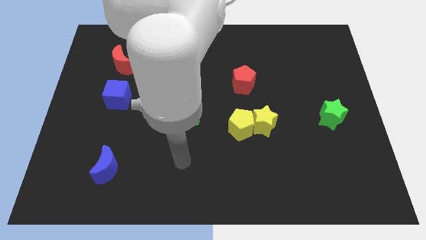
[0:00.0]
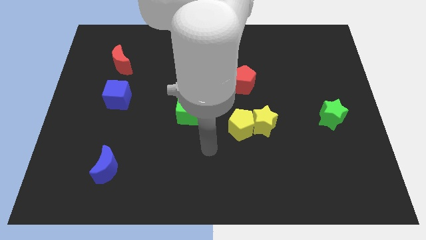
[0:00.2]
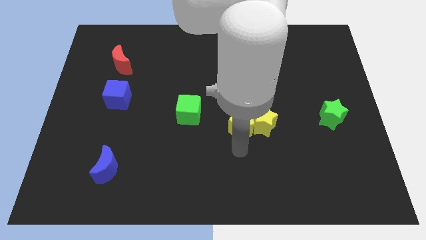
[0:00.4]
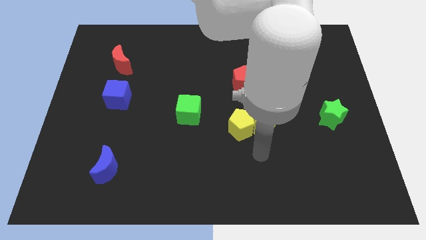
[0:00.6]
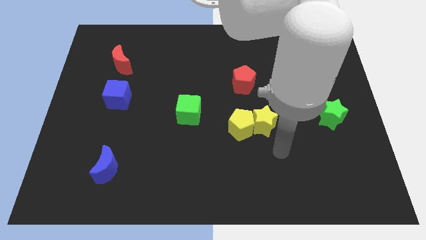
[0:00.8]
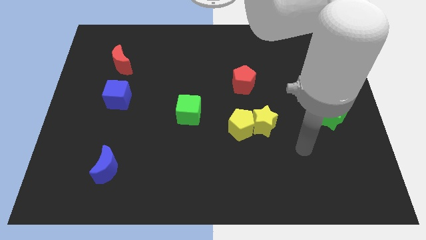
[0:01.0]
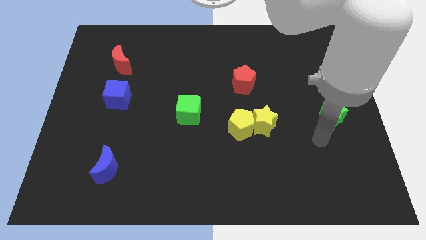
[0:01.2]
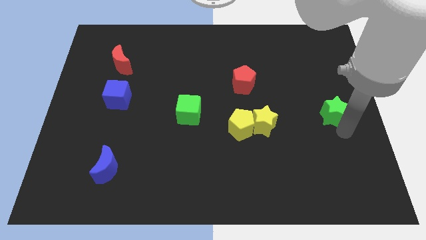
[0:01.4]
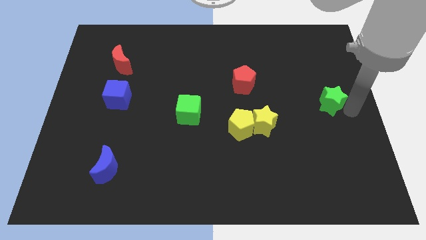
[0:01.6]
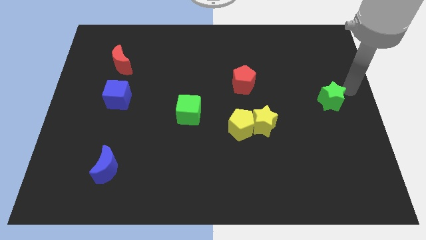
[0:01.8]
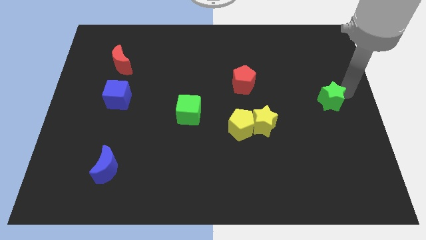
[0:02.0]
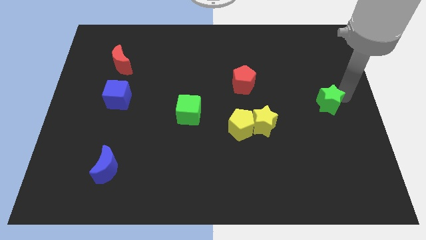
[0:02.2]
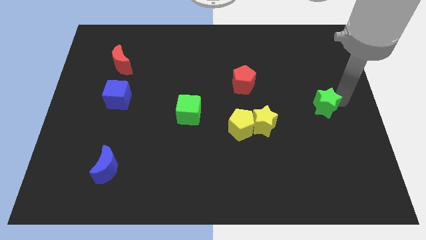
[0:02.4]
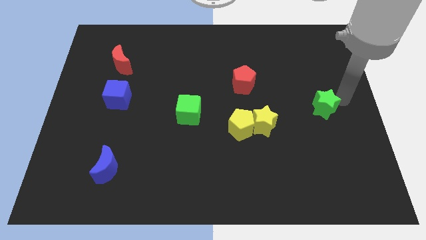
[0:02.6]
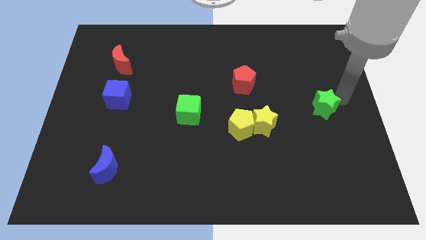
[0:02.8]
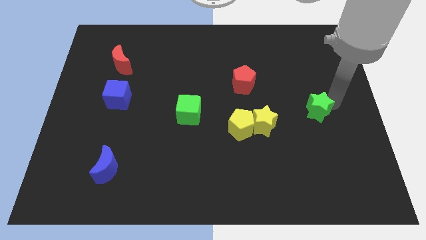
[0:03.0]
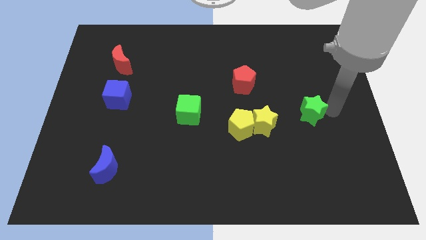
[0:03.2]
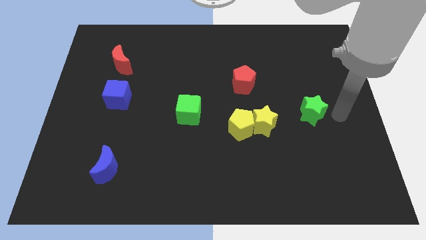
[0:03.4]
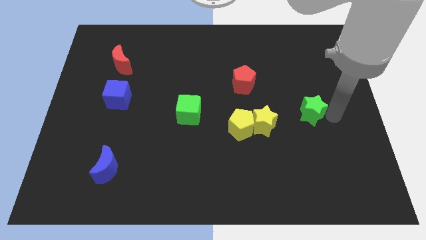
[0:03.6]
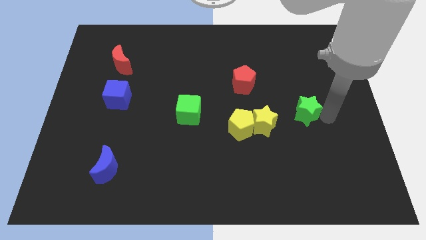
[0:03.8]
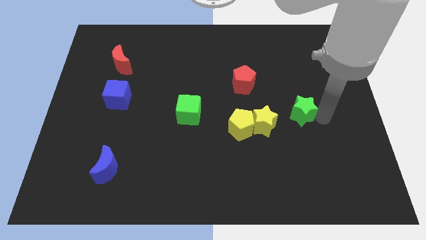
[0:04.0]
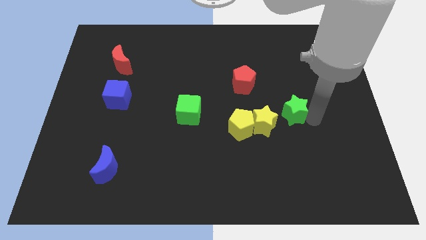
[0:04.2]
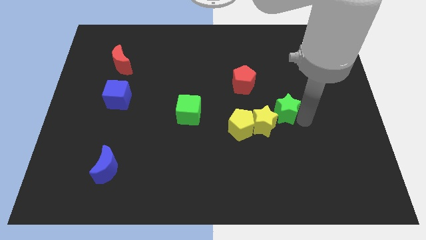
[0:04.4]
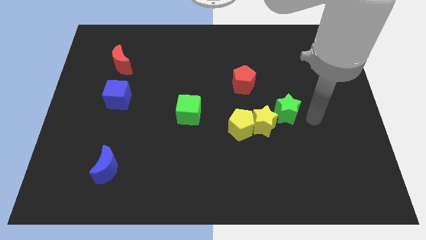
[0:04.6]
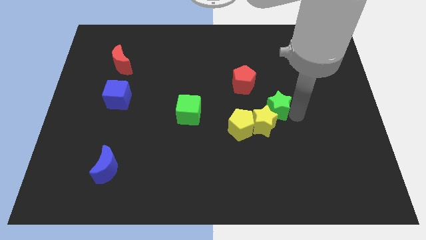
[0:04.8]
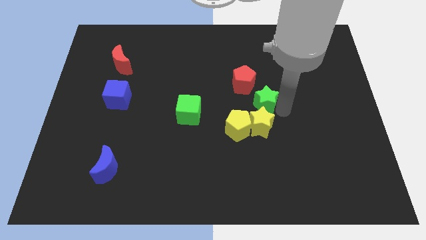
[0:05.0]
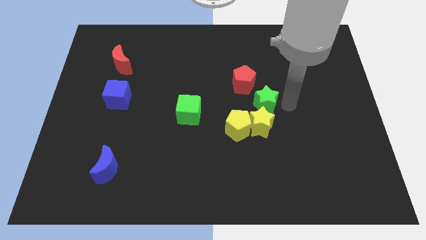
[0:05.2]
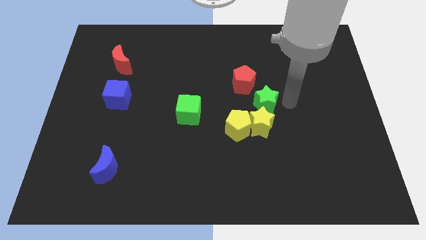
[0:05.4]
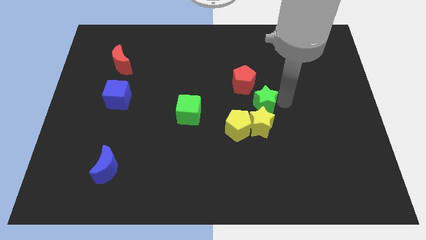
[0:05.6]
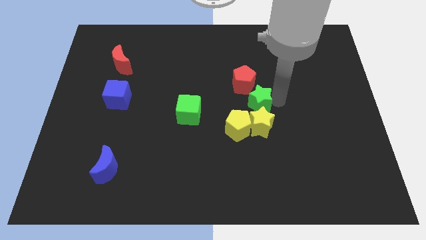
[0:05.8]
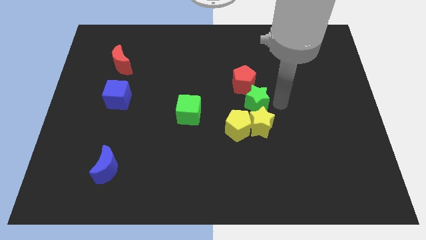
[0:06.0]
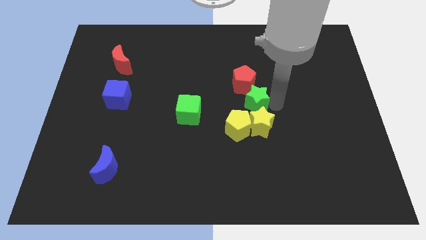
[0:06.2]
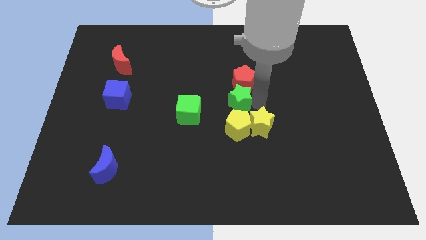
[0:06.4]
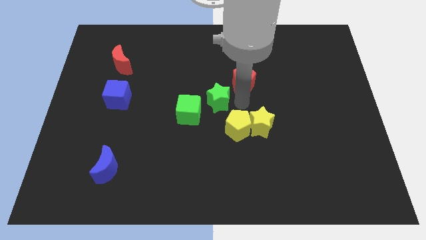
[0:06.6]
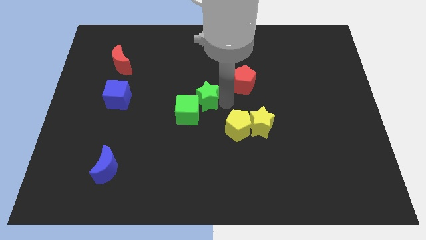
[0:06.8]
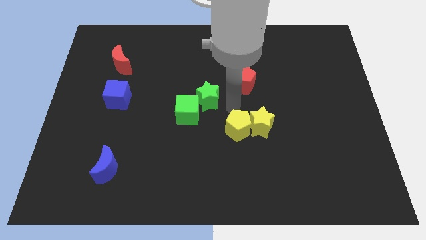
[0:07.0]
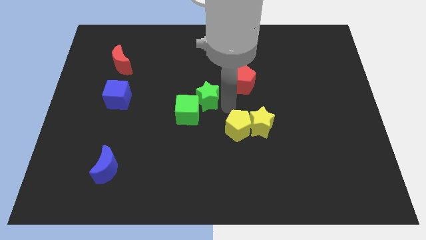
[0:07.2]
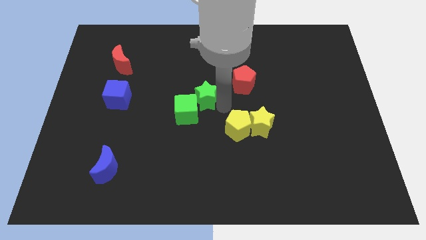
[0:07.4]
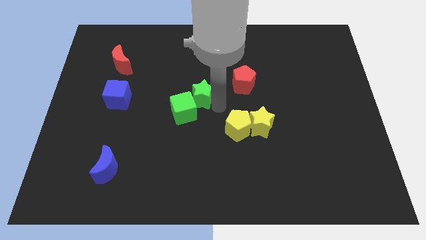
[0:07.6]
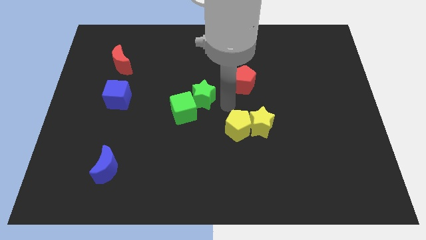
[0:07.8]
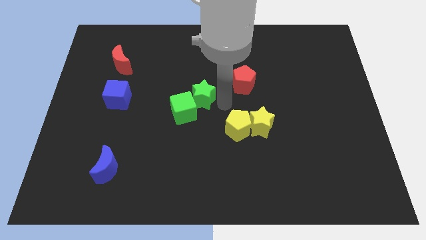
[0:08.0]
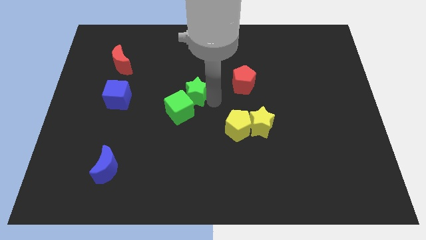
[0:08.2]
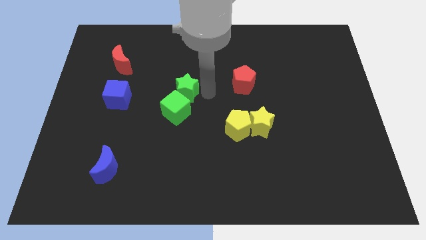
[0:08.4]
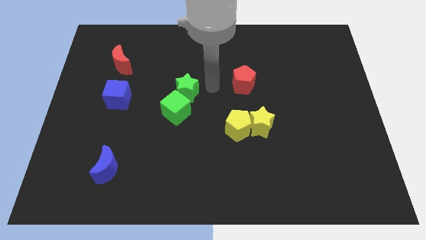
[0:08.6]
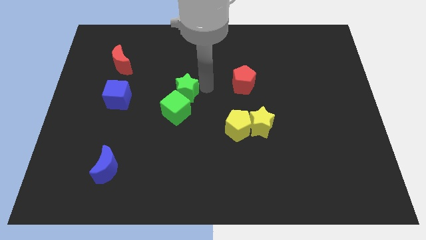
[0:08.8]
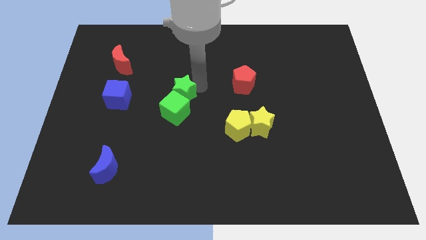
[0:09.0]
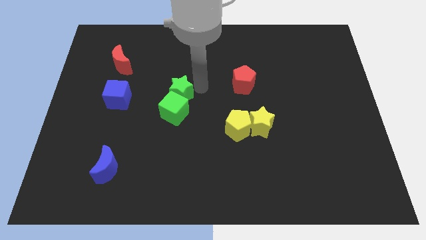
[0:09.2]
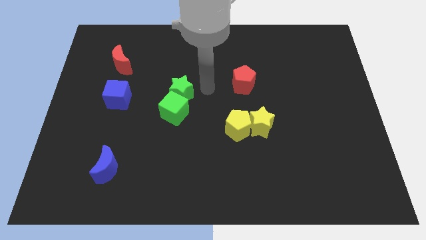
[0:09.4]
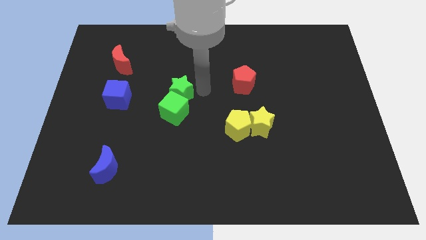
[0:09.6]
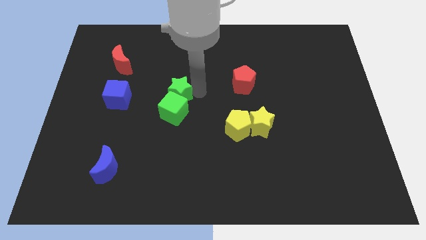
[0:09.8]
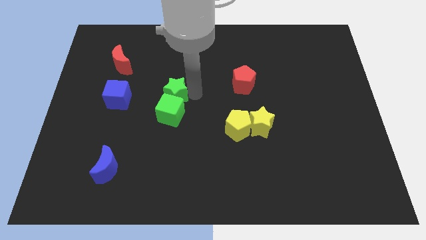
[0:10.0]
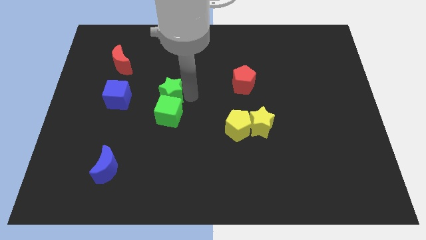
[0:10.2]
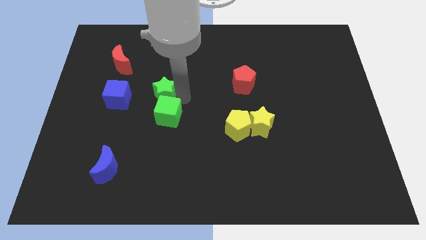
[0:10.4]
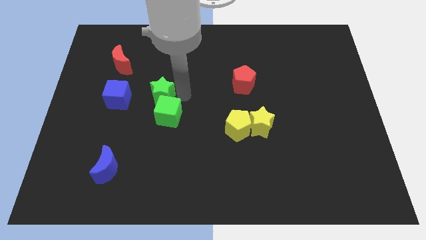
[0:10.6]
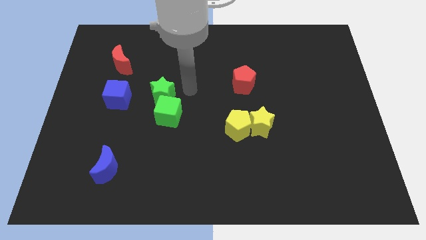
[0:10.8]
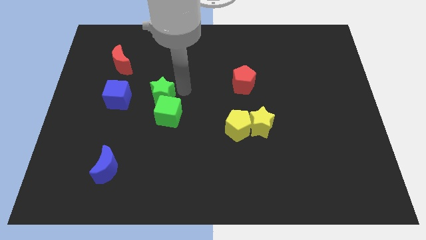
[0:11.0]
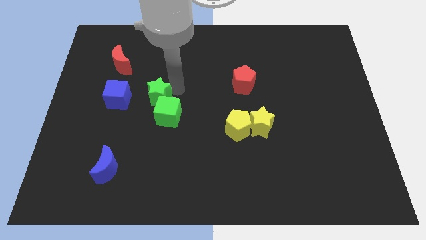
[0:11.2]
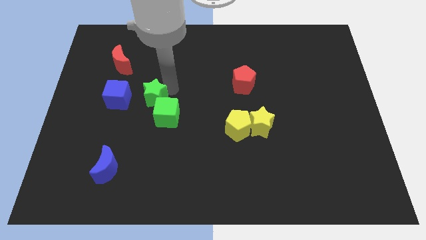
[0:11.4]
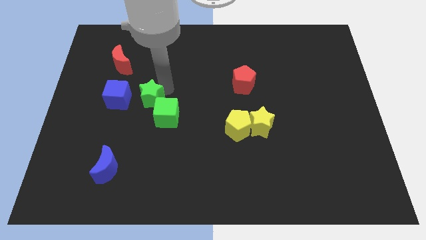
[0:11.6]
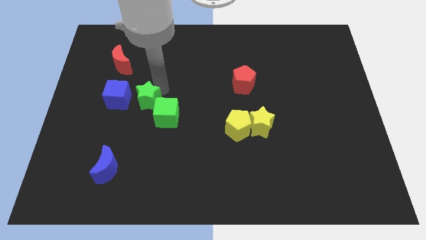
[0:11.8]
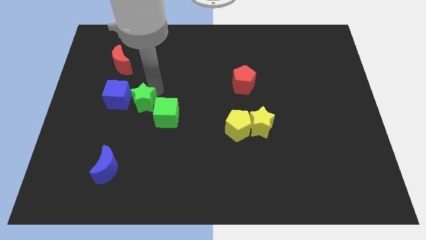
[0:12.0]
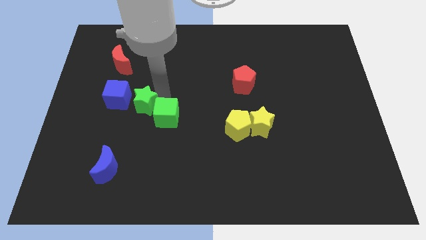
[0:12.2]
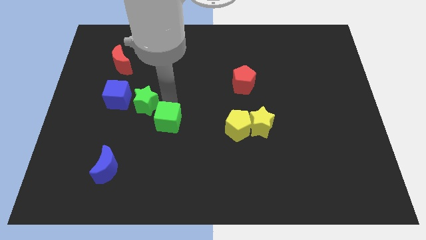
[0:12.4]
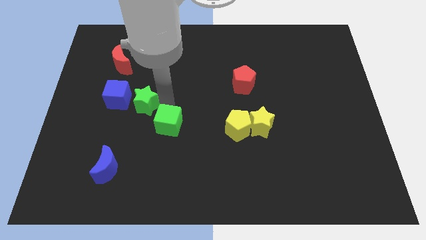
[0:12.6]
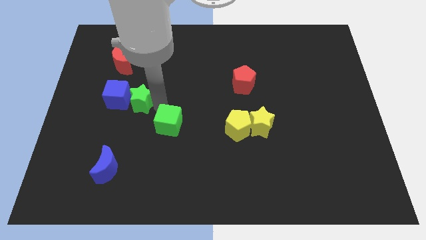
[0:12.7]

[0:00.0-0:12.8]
move the green star next to the blue cube
